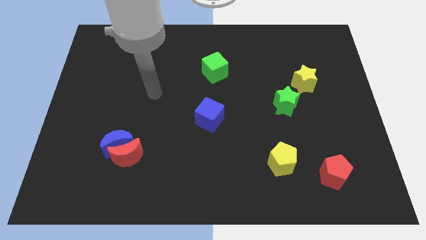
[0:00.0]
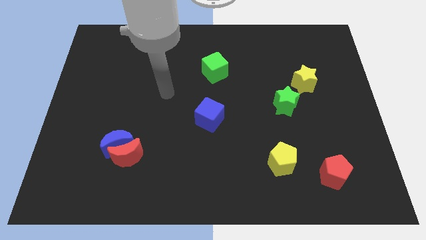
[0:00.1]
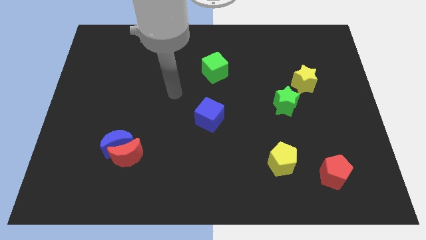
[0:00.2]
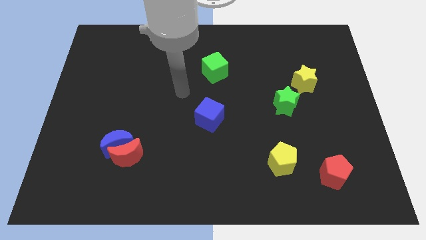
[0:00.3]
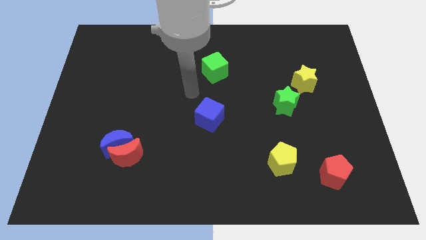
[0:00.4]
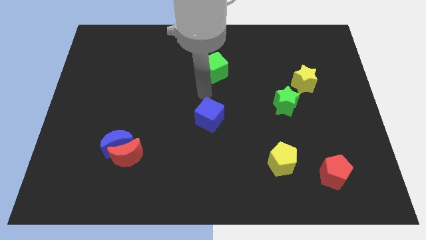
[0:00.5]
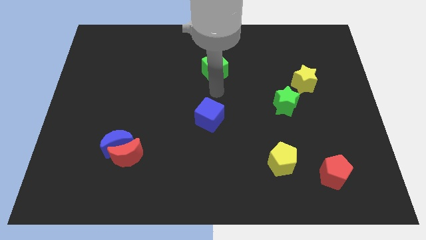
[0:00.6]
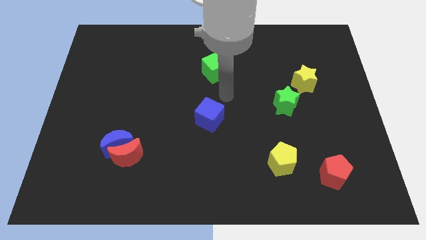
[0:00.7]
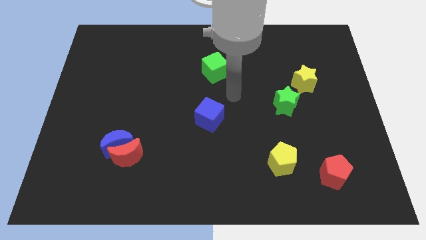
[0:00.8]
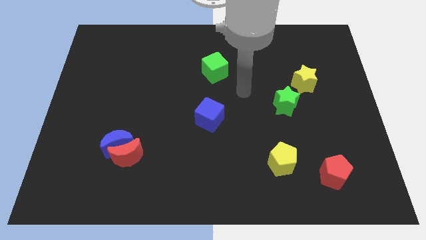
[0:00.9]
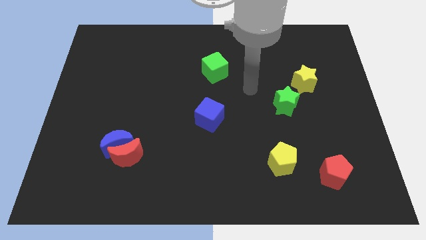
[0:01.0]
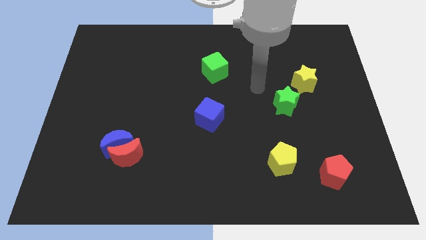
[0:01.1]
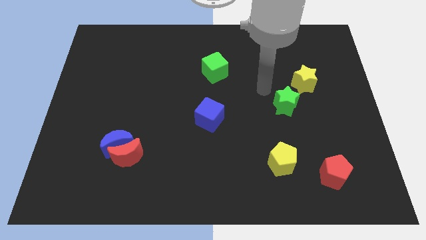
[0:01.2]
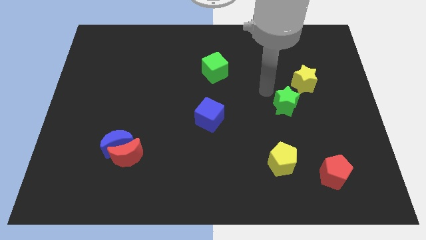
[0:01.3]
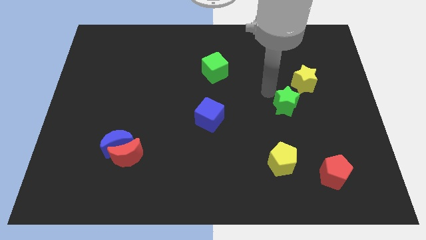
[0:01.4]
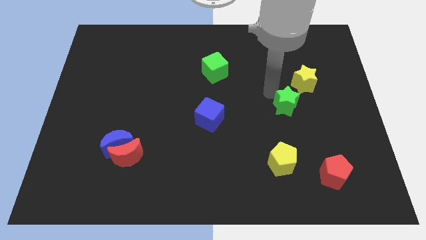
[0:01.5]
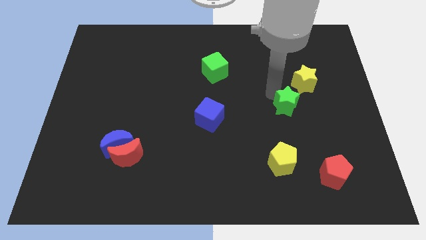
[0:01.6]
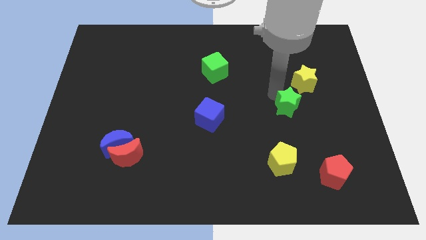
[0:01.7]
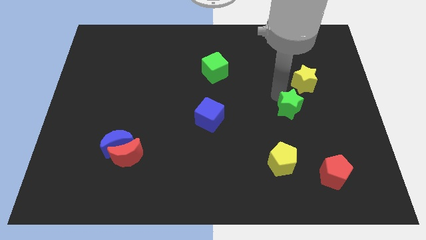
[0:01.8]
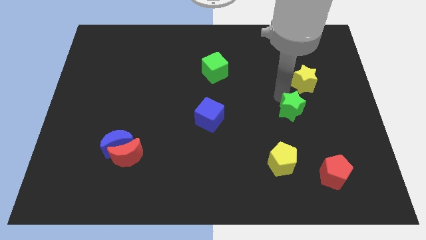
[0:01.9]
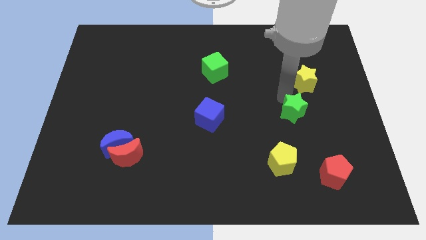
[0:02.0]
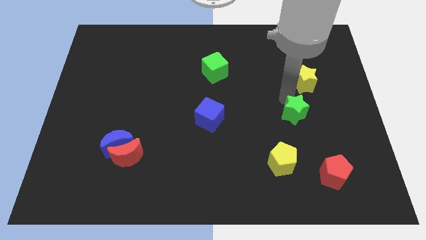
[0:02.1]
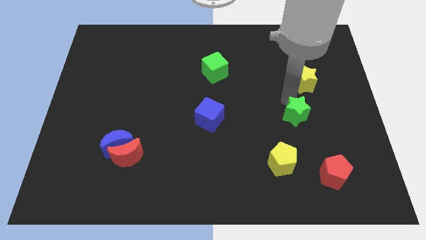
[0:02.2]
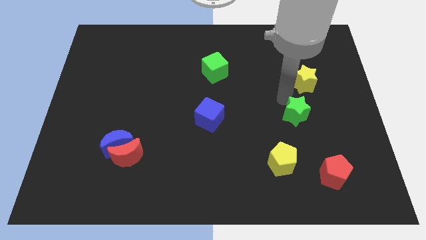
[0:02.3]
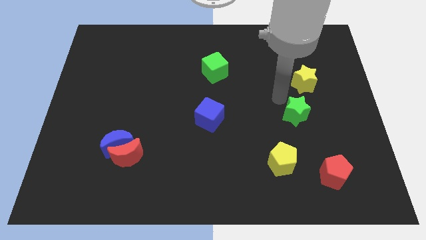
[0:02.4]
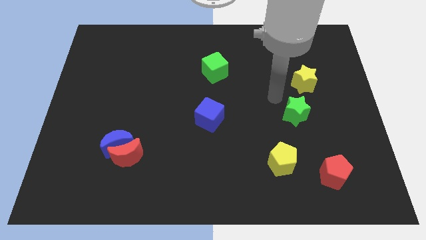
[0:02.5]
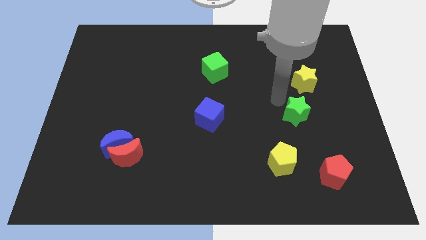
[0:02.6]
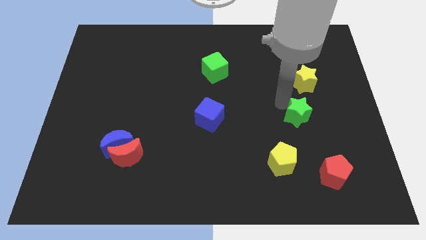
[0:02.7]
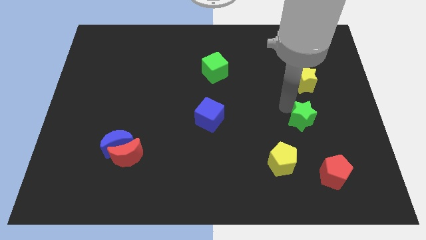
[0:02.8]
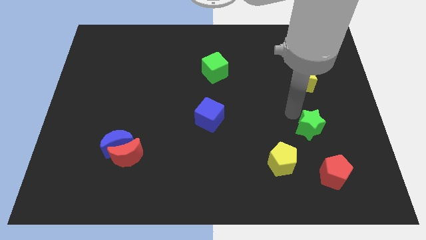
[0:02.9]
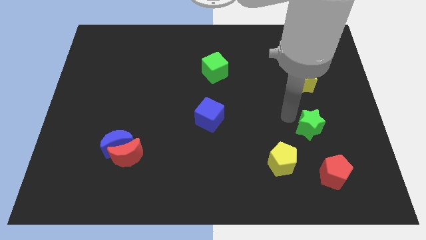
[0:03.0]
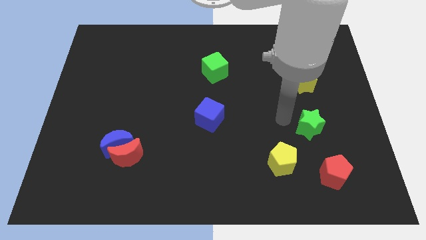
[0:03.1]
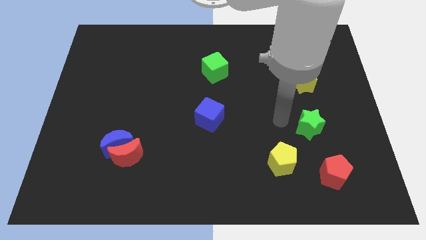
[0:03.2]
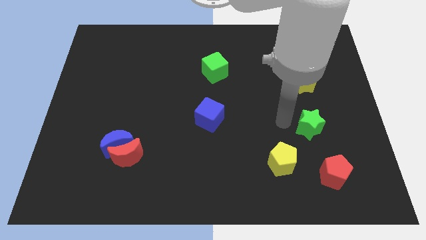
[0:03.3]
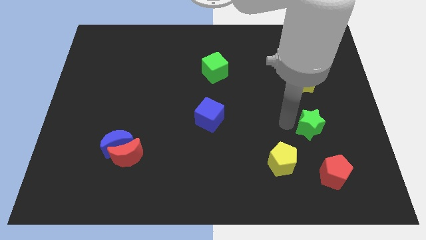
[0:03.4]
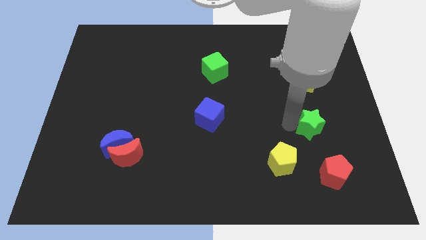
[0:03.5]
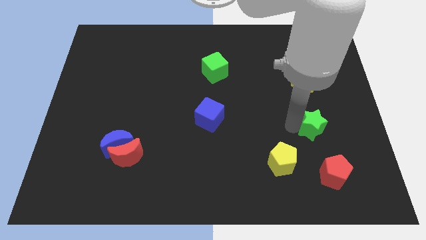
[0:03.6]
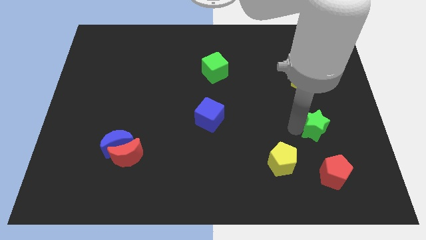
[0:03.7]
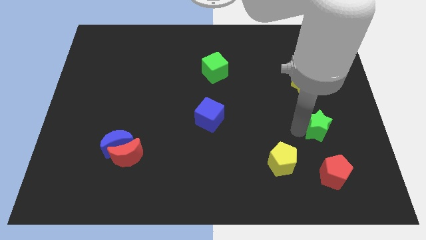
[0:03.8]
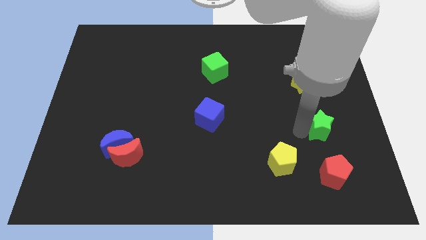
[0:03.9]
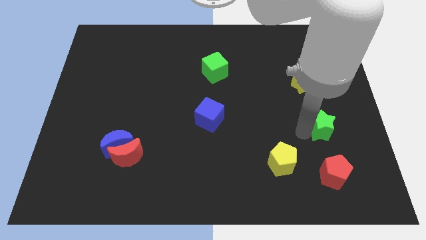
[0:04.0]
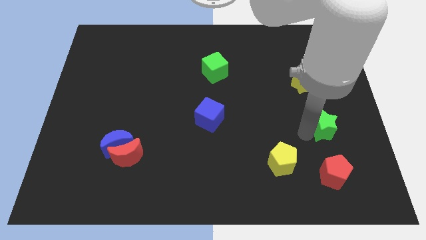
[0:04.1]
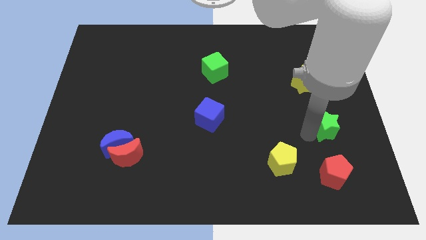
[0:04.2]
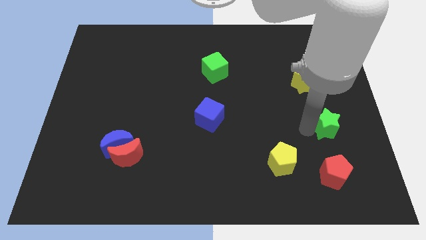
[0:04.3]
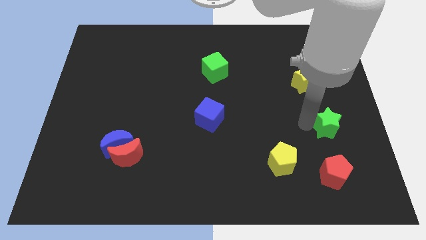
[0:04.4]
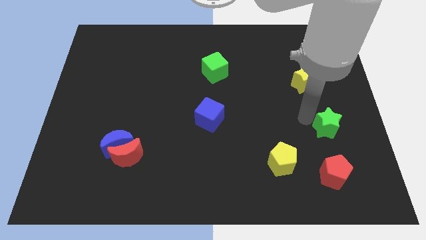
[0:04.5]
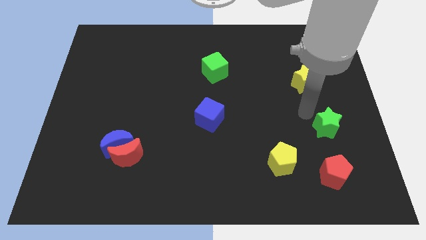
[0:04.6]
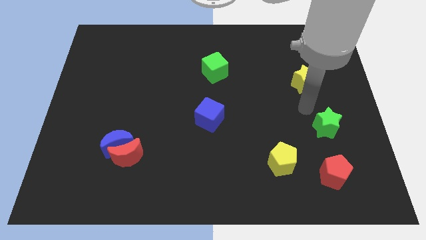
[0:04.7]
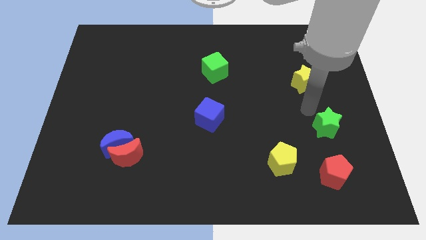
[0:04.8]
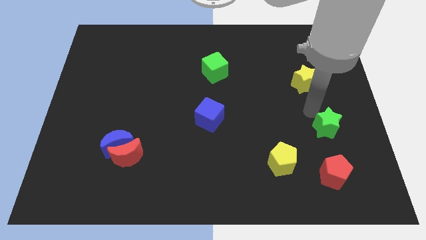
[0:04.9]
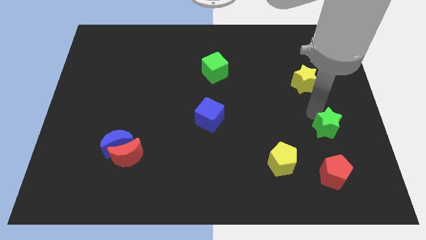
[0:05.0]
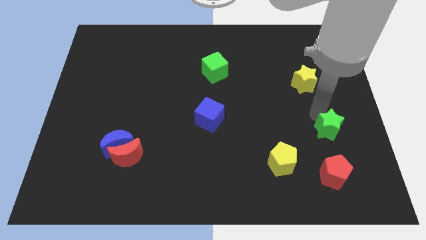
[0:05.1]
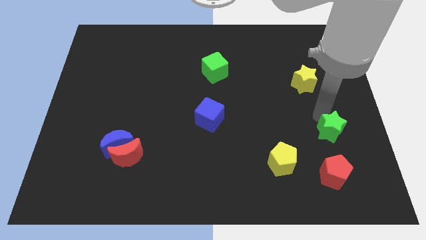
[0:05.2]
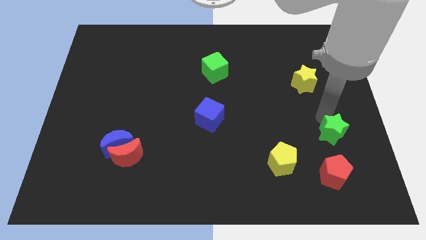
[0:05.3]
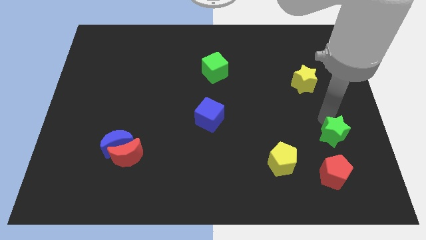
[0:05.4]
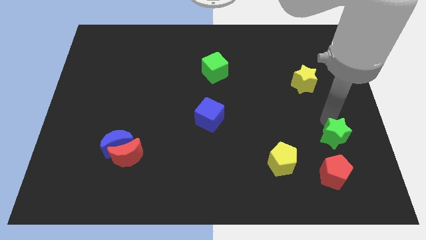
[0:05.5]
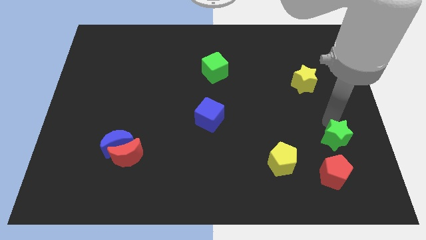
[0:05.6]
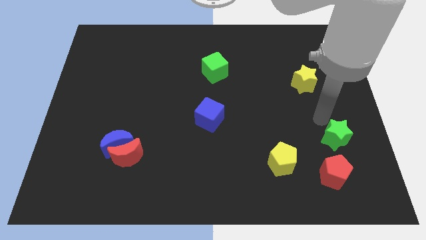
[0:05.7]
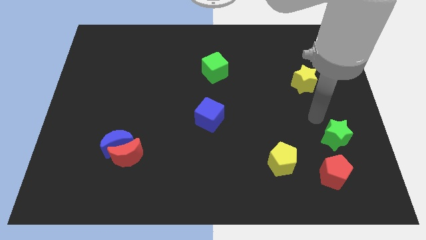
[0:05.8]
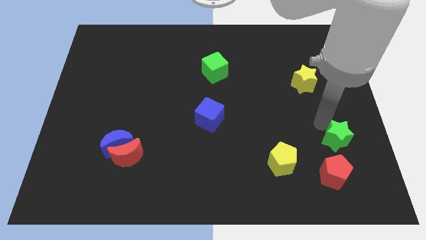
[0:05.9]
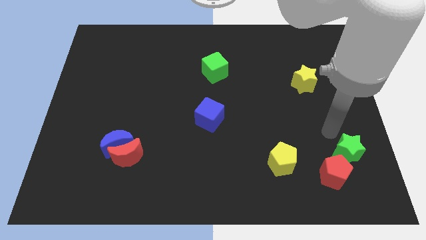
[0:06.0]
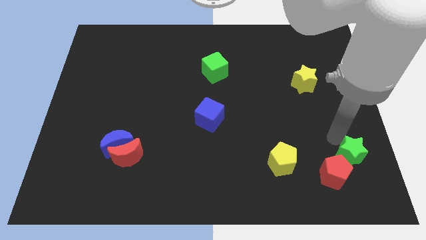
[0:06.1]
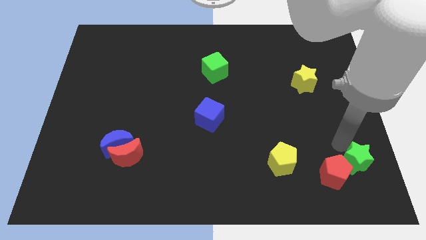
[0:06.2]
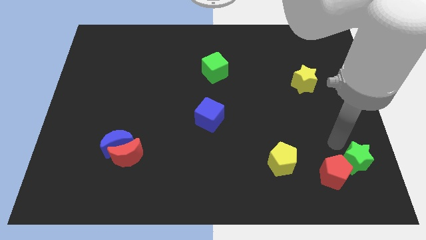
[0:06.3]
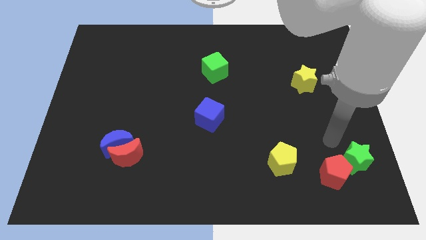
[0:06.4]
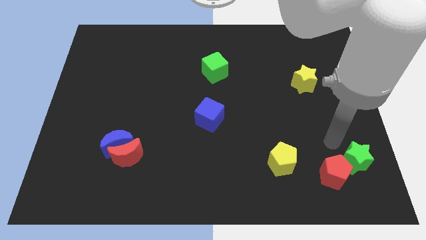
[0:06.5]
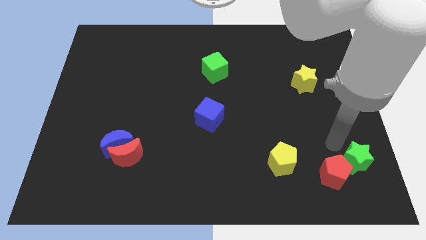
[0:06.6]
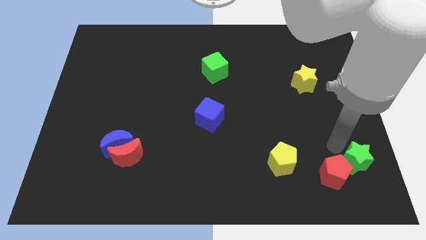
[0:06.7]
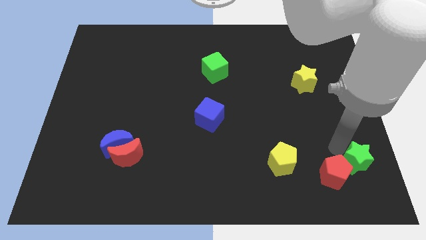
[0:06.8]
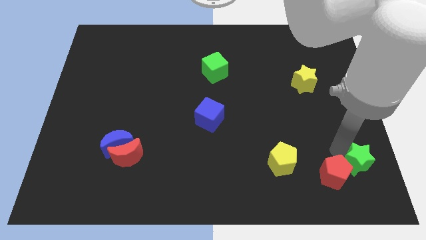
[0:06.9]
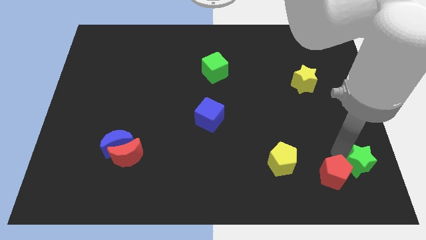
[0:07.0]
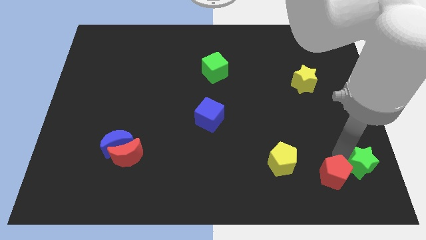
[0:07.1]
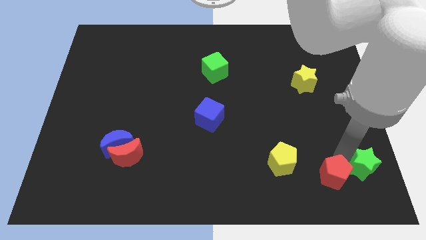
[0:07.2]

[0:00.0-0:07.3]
slide the green star to the bottom right corner
